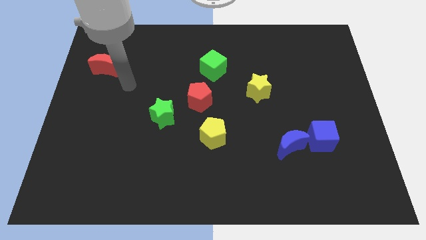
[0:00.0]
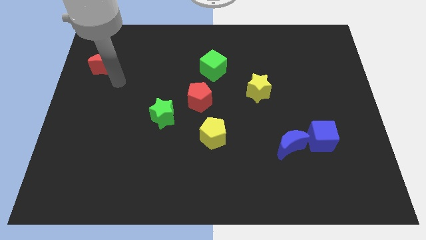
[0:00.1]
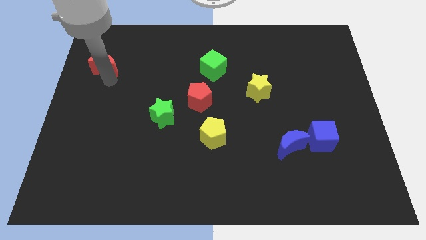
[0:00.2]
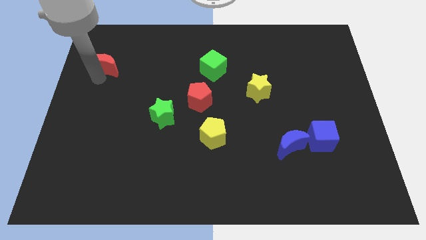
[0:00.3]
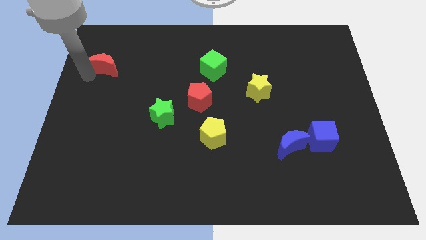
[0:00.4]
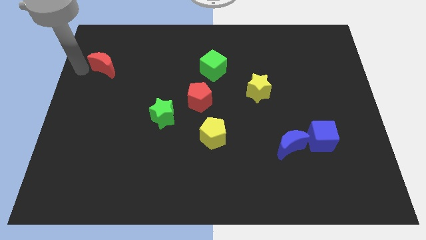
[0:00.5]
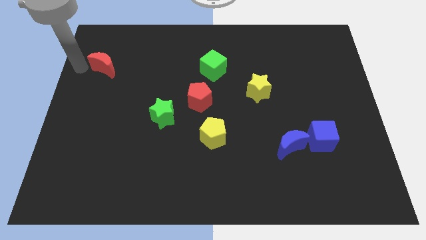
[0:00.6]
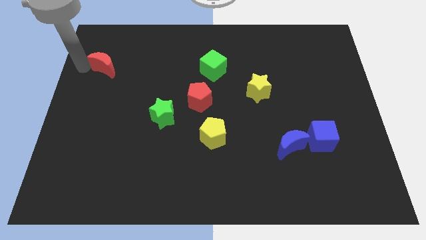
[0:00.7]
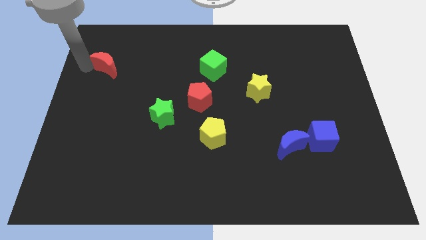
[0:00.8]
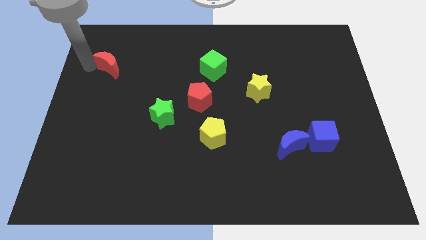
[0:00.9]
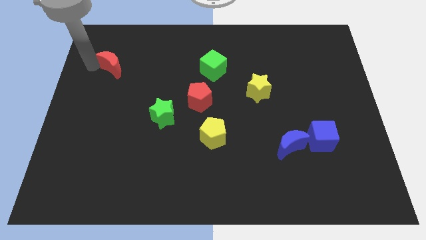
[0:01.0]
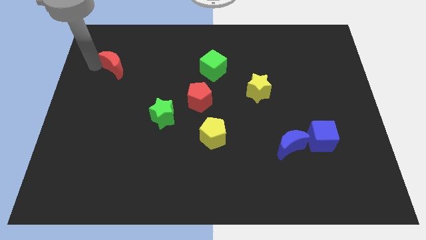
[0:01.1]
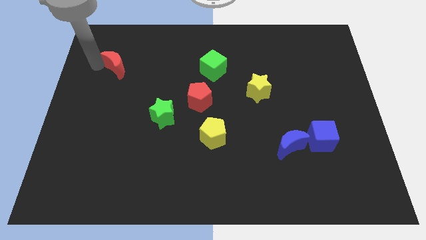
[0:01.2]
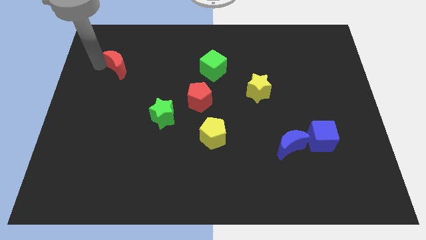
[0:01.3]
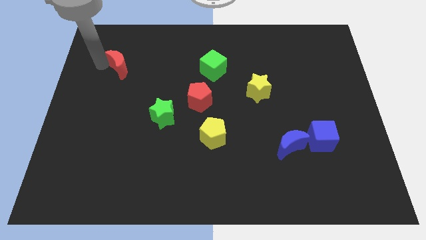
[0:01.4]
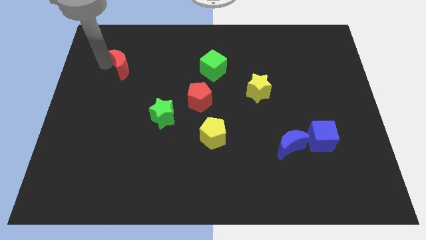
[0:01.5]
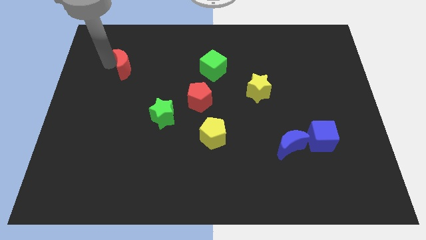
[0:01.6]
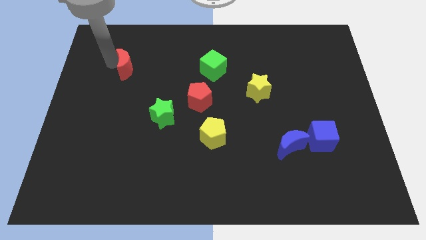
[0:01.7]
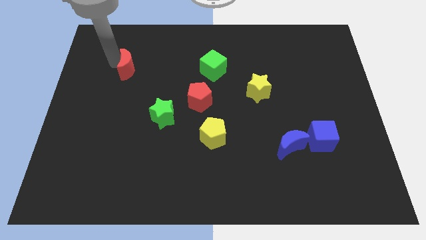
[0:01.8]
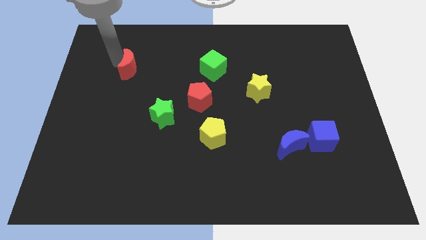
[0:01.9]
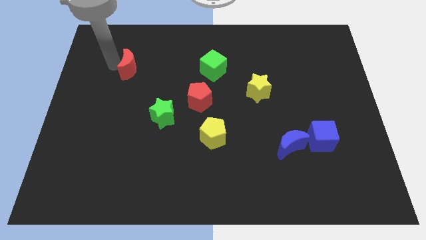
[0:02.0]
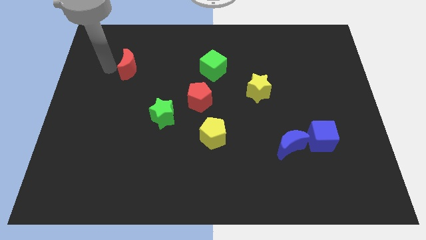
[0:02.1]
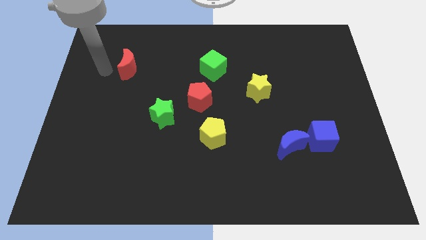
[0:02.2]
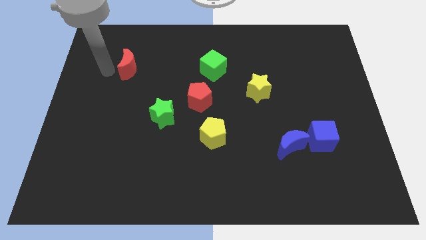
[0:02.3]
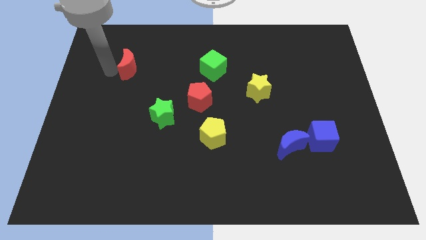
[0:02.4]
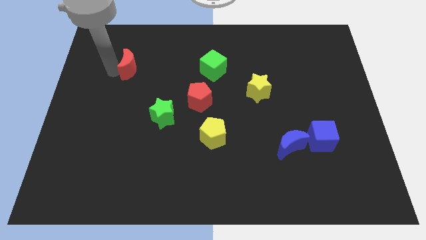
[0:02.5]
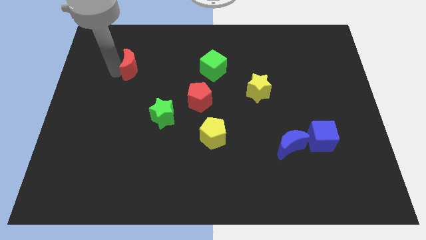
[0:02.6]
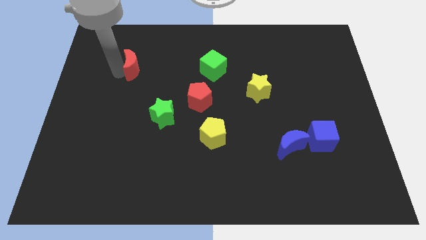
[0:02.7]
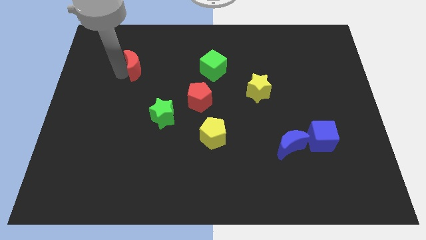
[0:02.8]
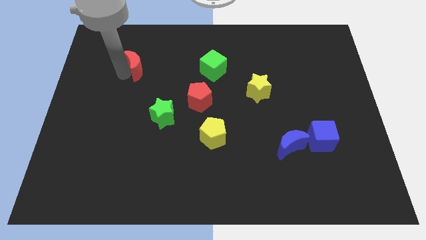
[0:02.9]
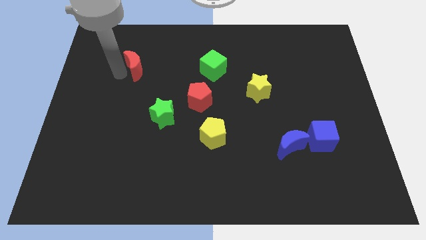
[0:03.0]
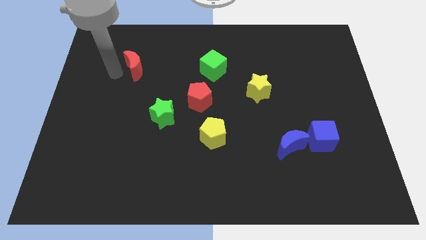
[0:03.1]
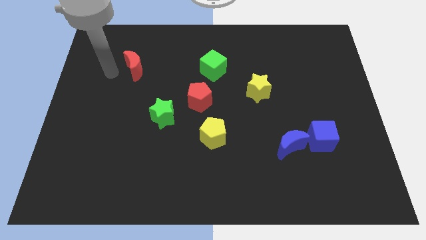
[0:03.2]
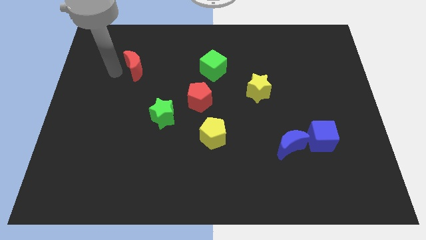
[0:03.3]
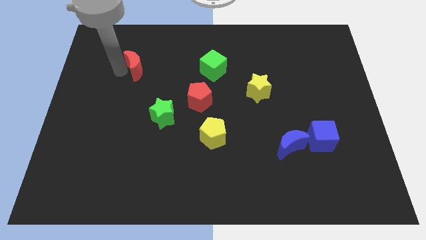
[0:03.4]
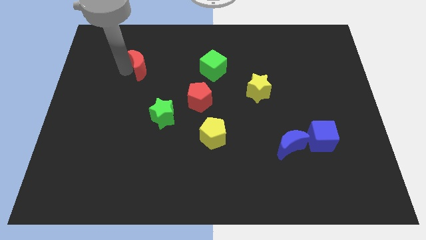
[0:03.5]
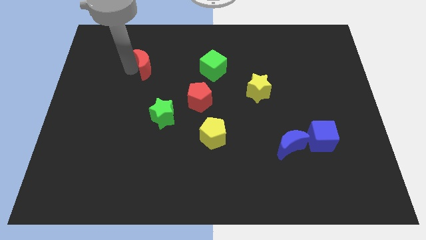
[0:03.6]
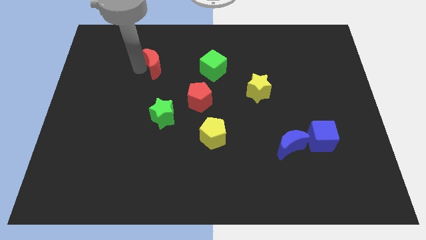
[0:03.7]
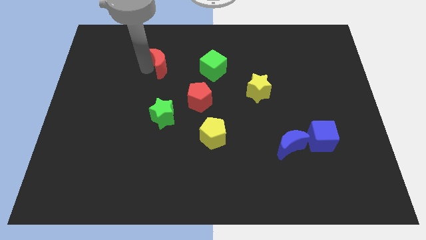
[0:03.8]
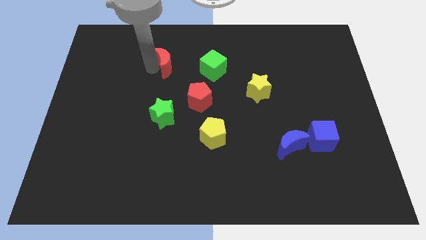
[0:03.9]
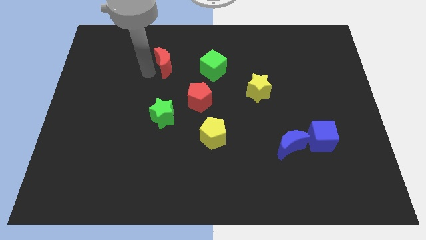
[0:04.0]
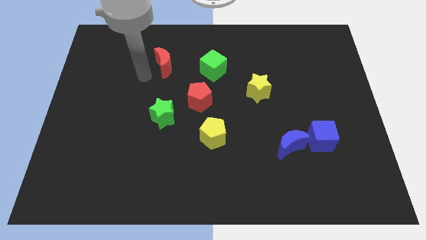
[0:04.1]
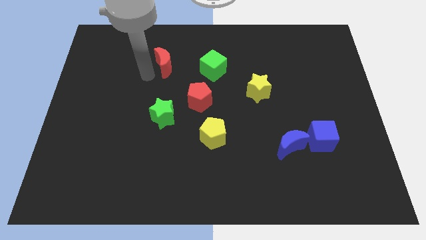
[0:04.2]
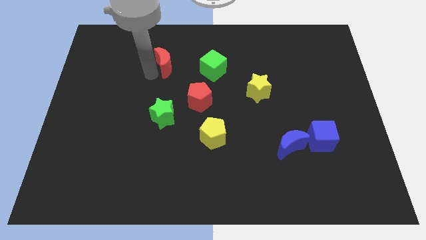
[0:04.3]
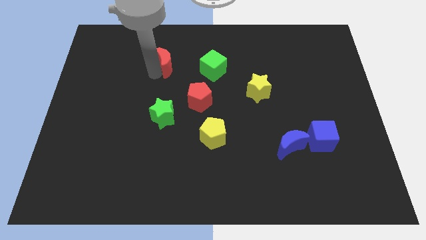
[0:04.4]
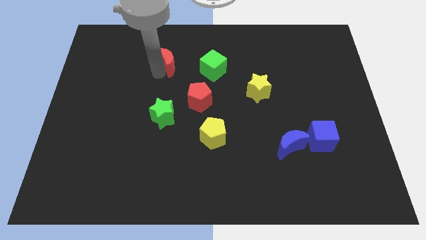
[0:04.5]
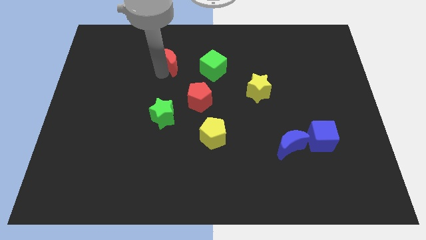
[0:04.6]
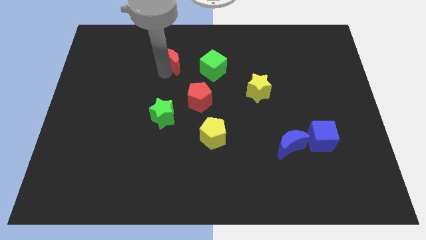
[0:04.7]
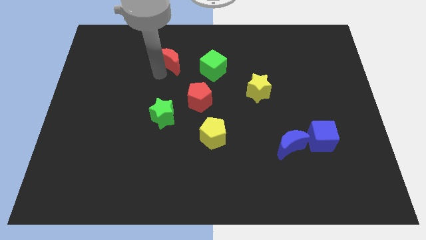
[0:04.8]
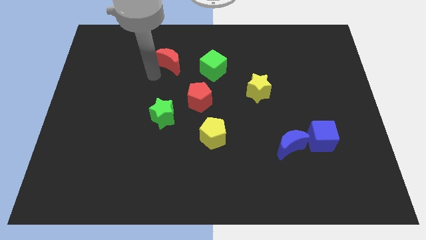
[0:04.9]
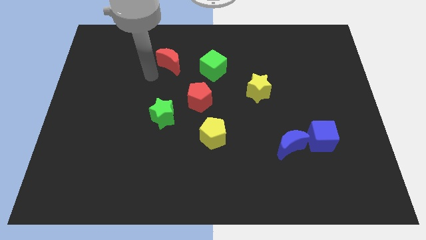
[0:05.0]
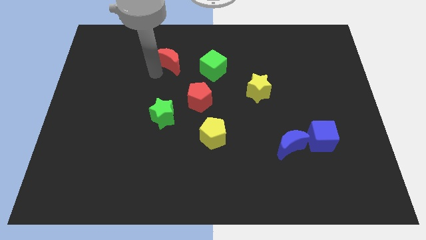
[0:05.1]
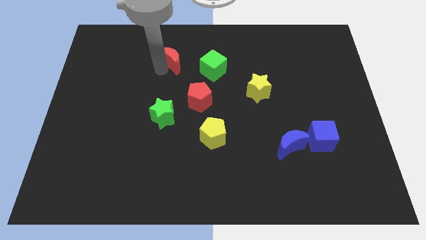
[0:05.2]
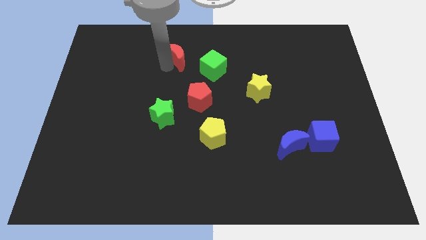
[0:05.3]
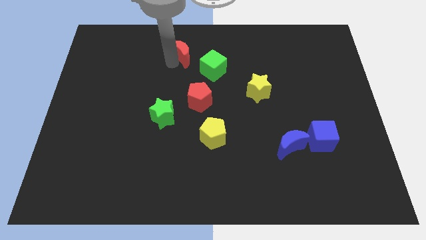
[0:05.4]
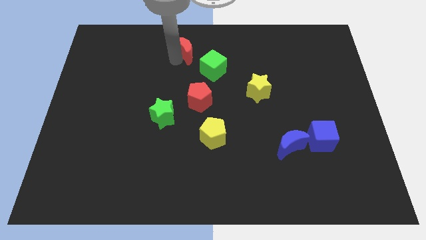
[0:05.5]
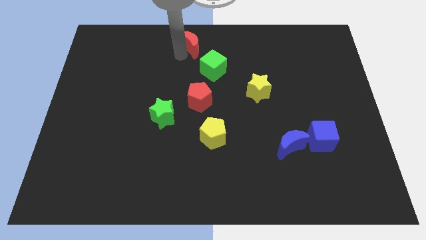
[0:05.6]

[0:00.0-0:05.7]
push the red moon to the towards your base

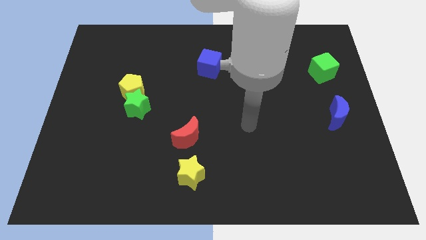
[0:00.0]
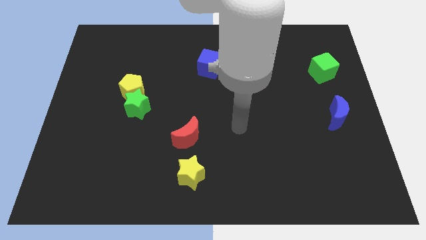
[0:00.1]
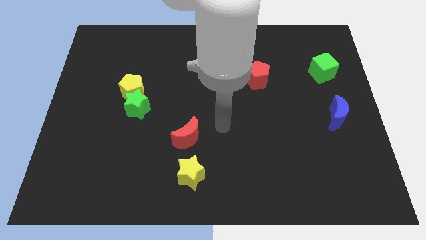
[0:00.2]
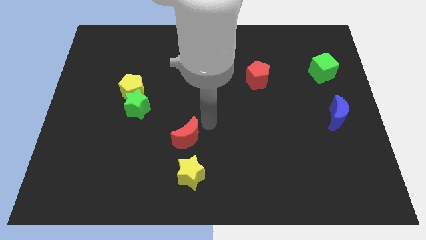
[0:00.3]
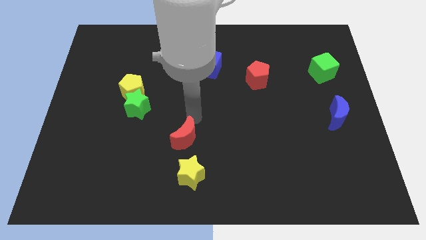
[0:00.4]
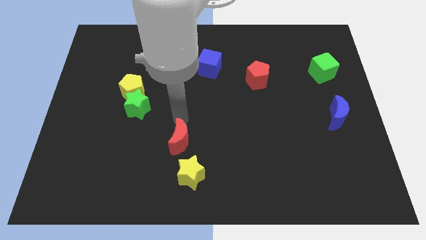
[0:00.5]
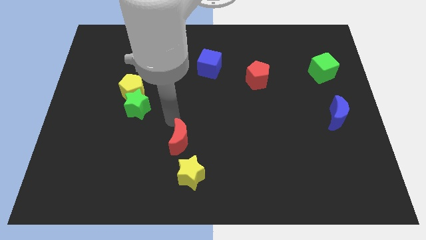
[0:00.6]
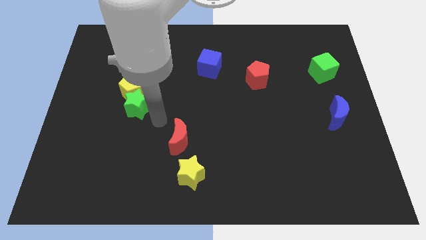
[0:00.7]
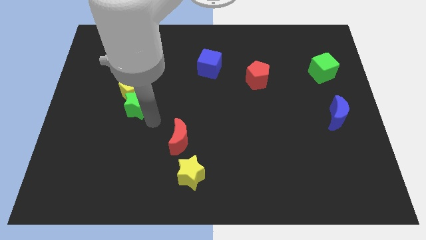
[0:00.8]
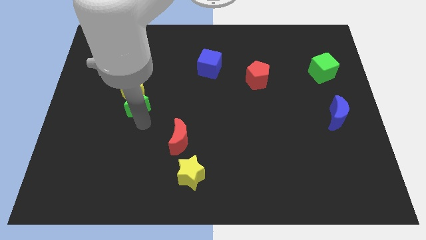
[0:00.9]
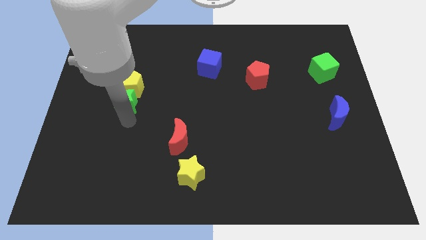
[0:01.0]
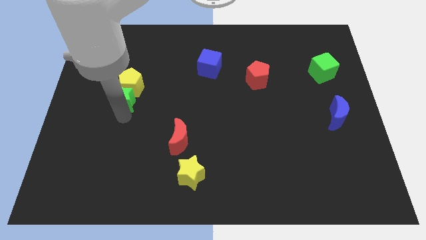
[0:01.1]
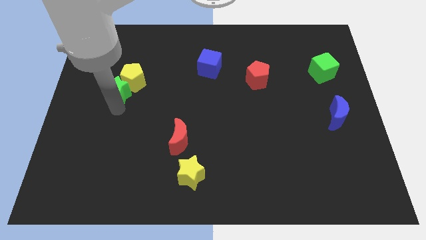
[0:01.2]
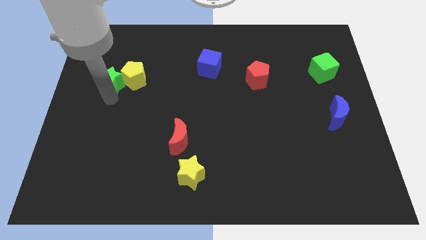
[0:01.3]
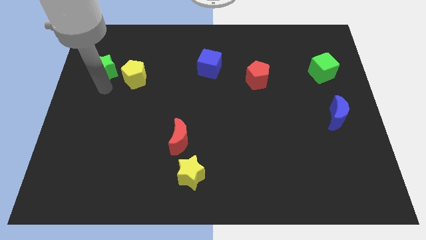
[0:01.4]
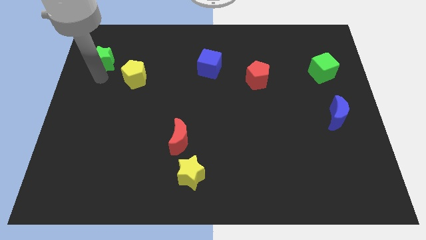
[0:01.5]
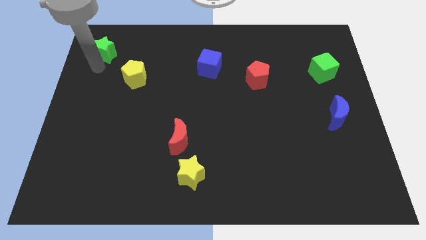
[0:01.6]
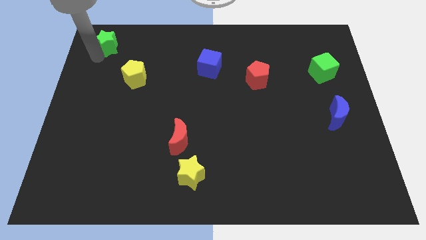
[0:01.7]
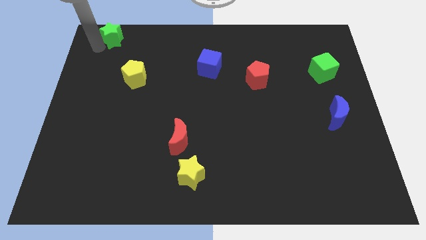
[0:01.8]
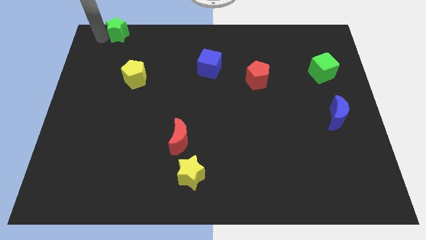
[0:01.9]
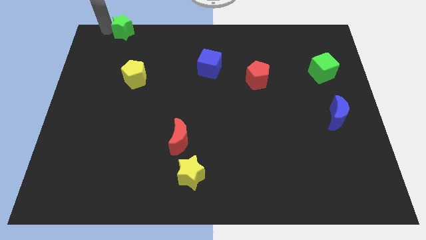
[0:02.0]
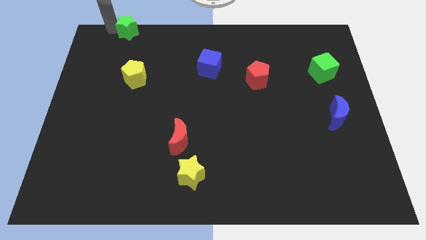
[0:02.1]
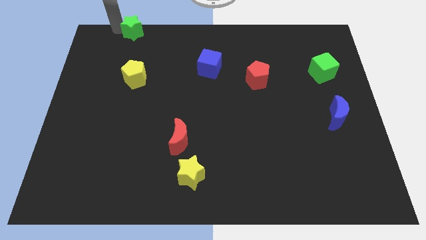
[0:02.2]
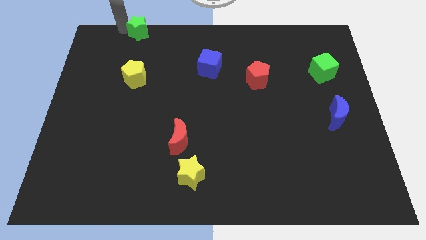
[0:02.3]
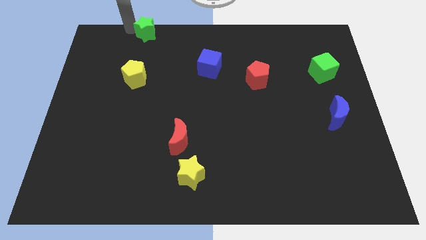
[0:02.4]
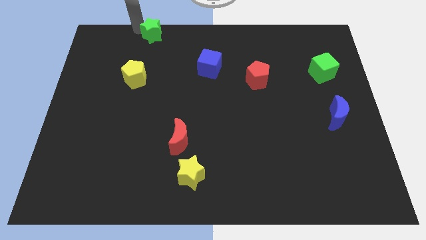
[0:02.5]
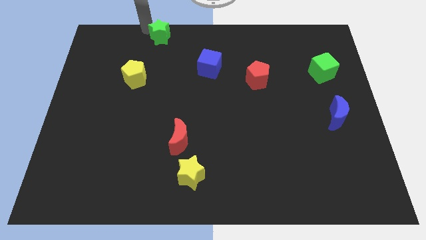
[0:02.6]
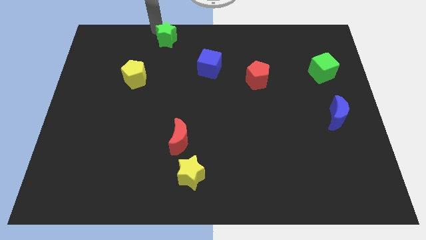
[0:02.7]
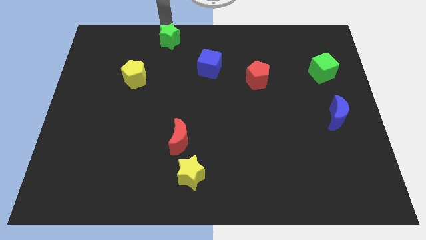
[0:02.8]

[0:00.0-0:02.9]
slide the green star to the towards your base
